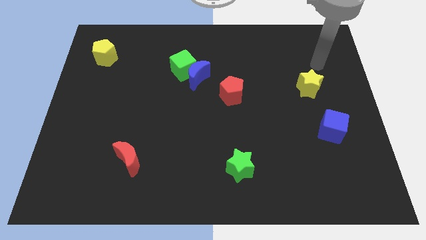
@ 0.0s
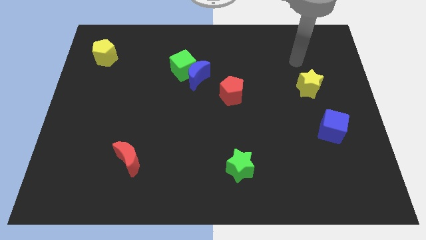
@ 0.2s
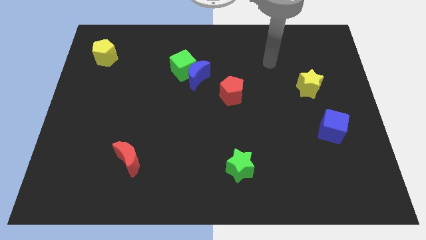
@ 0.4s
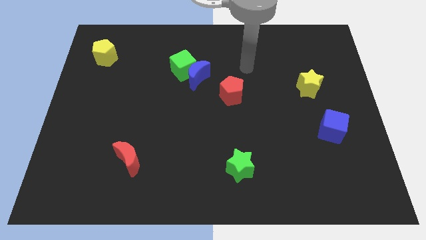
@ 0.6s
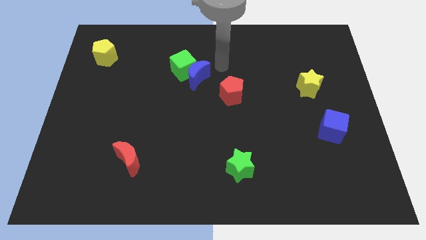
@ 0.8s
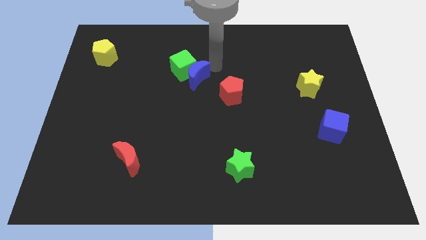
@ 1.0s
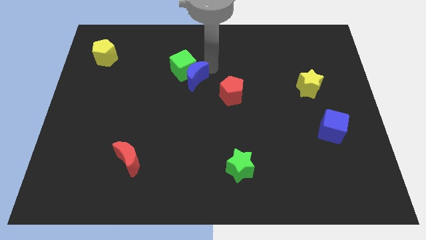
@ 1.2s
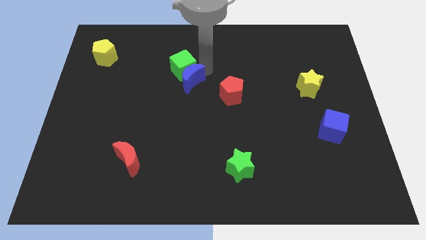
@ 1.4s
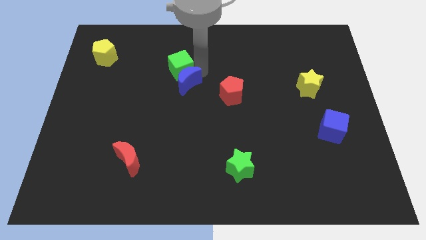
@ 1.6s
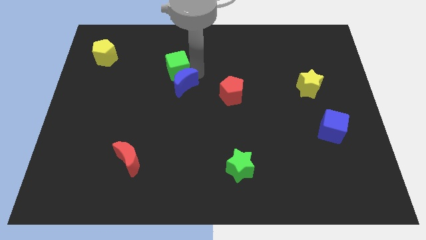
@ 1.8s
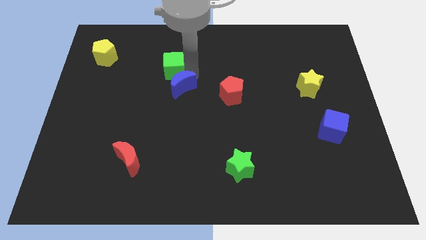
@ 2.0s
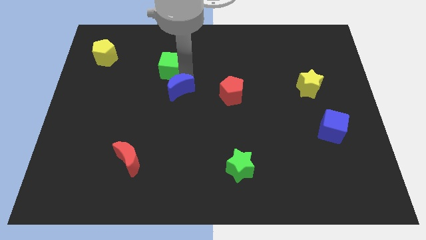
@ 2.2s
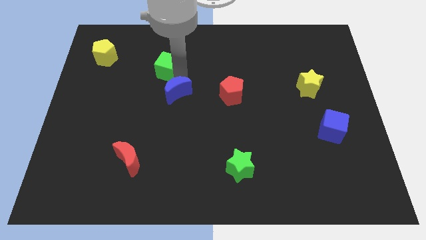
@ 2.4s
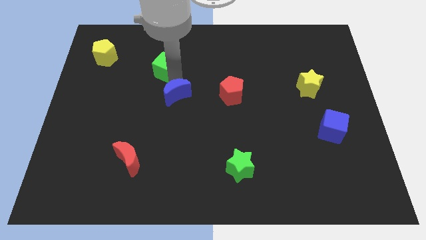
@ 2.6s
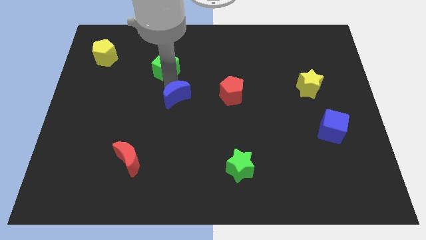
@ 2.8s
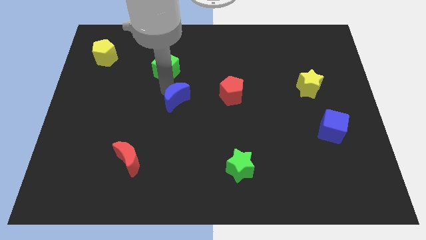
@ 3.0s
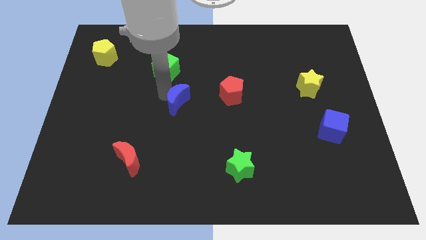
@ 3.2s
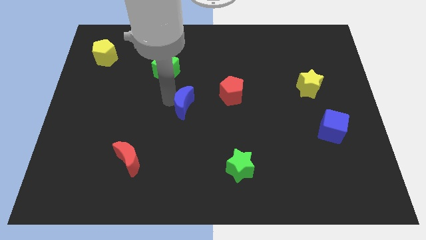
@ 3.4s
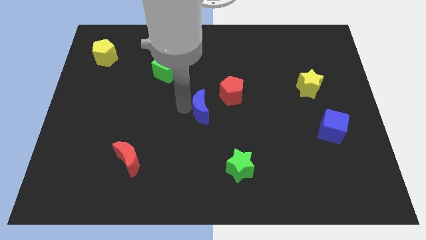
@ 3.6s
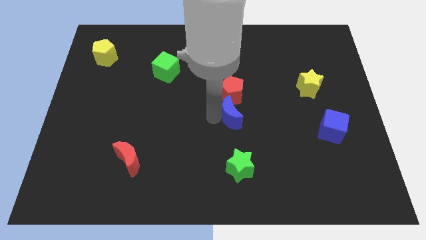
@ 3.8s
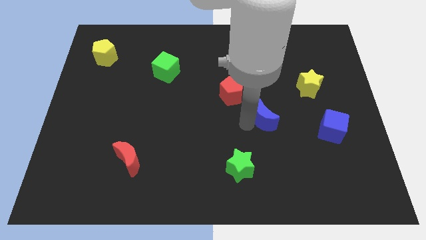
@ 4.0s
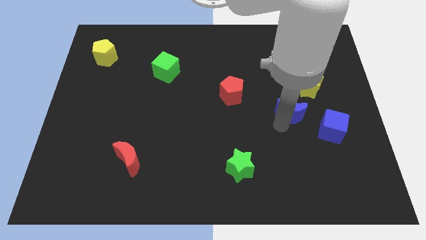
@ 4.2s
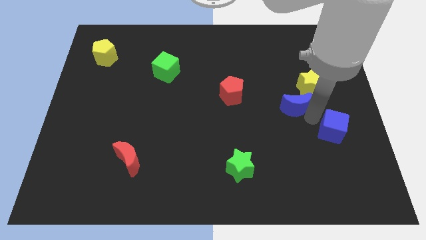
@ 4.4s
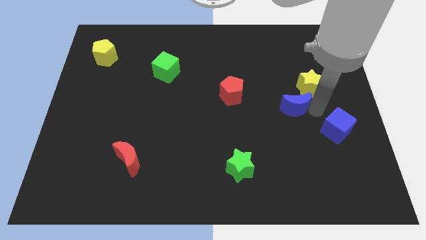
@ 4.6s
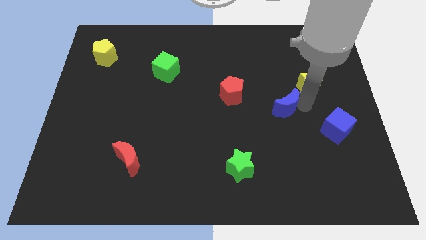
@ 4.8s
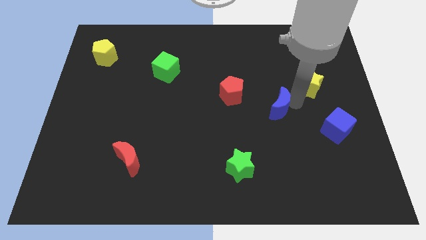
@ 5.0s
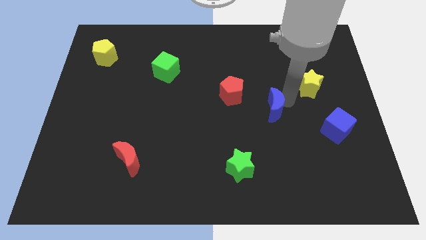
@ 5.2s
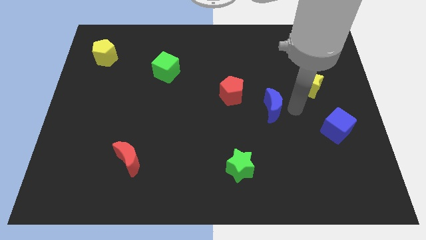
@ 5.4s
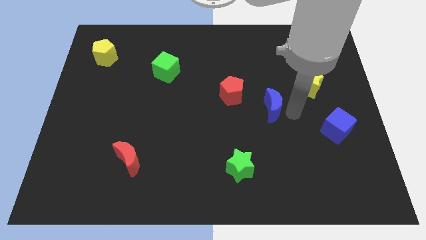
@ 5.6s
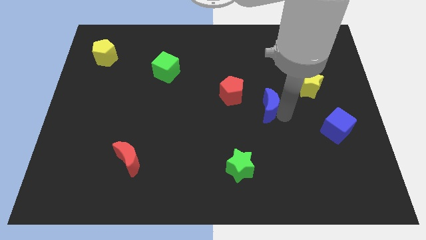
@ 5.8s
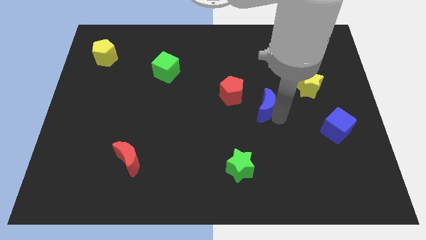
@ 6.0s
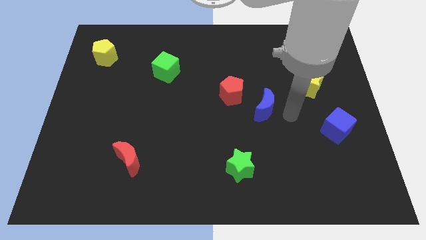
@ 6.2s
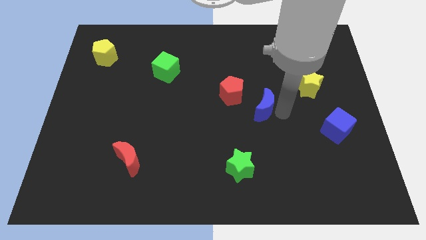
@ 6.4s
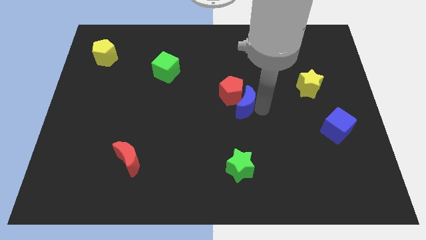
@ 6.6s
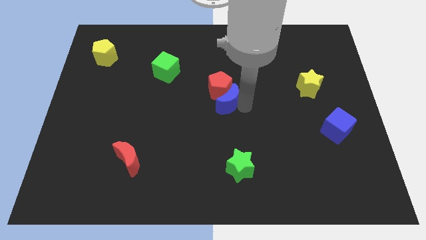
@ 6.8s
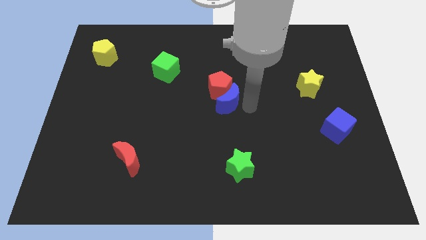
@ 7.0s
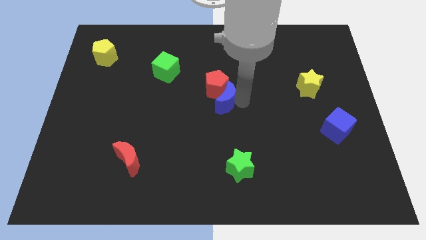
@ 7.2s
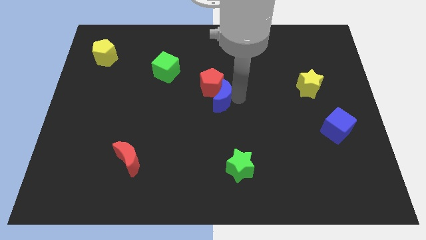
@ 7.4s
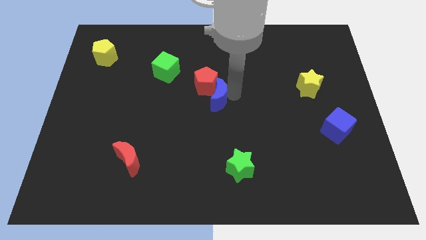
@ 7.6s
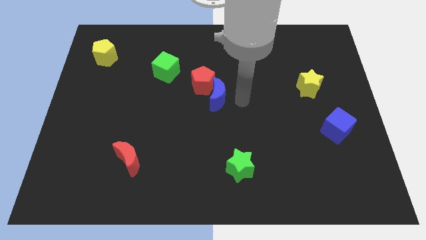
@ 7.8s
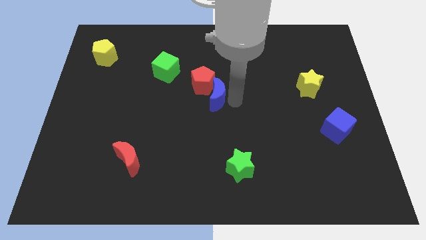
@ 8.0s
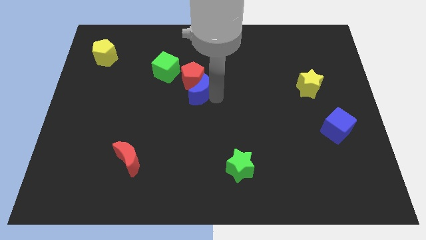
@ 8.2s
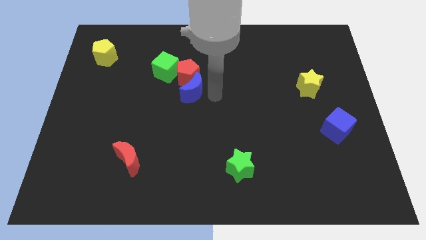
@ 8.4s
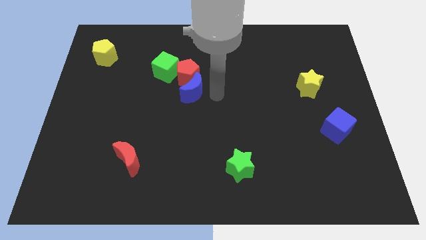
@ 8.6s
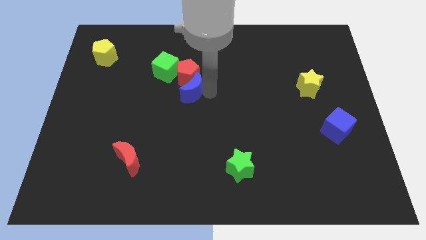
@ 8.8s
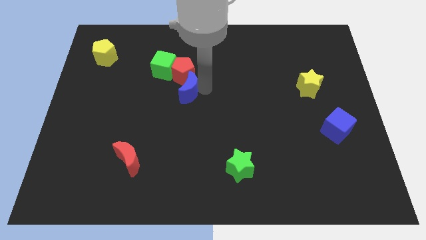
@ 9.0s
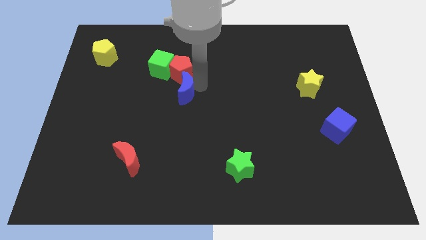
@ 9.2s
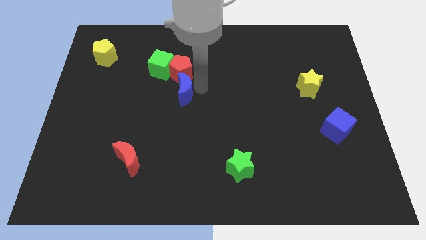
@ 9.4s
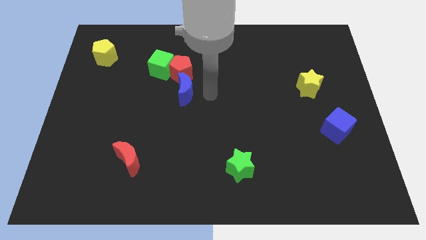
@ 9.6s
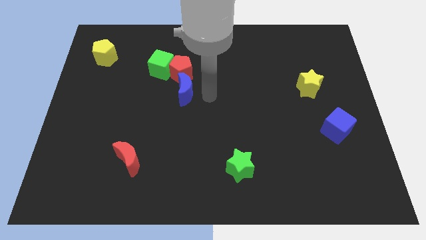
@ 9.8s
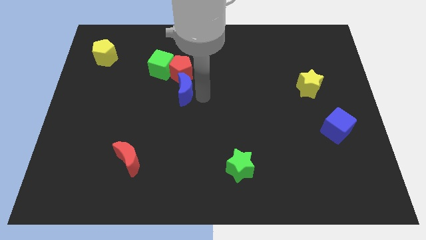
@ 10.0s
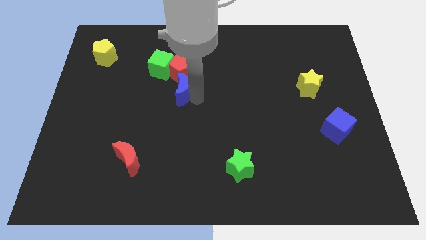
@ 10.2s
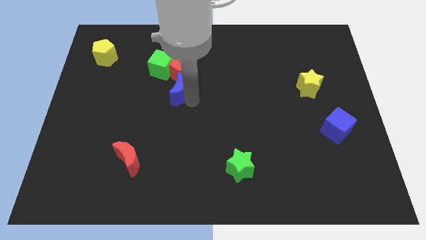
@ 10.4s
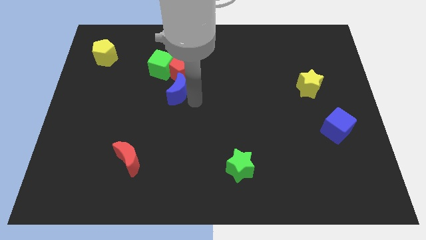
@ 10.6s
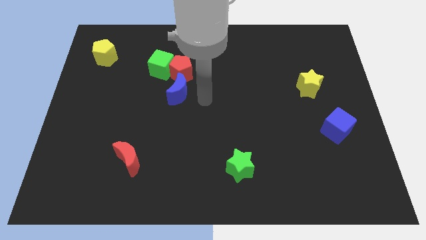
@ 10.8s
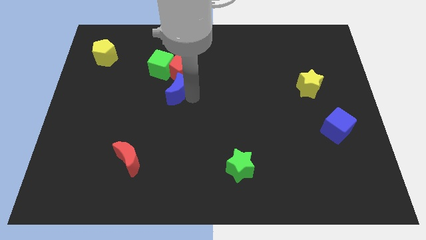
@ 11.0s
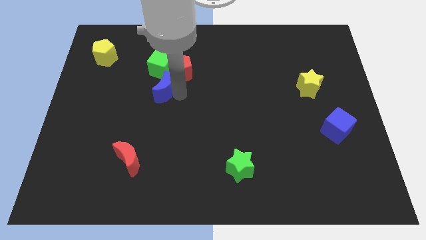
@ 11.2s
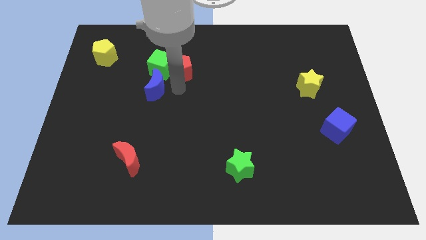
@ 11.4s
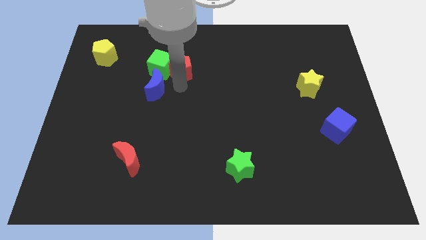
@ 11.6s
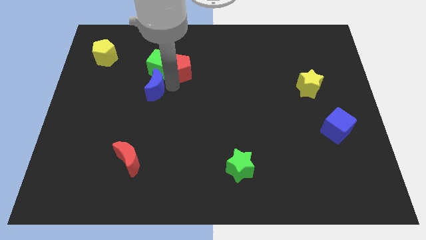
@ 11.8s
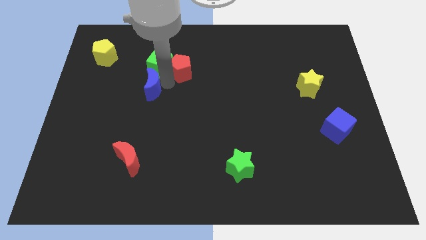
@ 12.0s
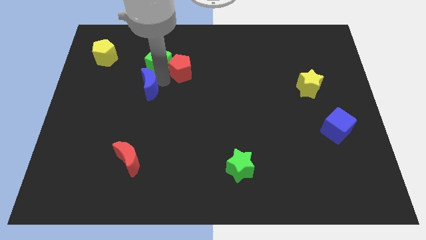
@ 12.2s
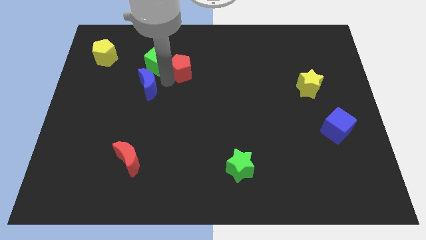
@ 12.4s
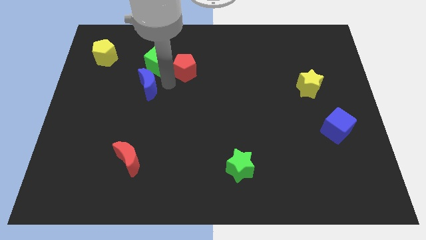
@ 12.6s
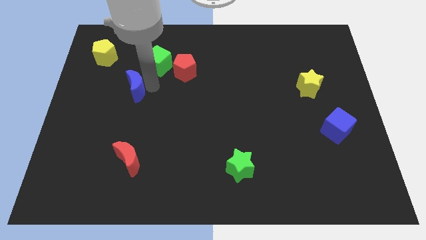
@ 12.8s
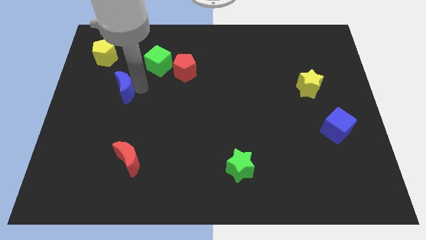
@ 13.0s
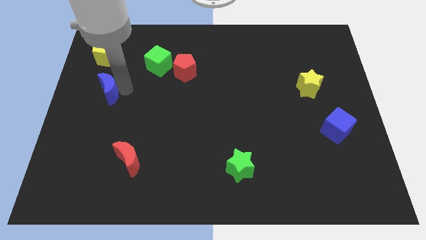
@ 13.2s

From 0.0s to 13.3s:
push the blue moon to the center left
